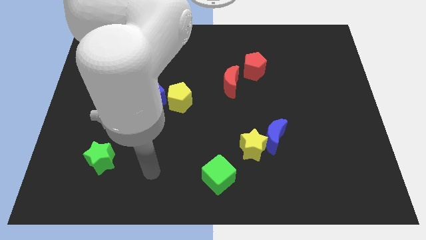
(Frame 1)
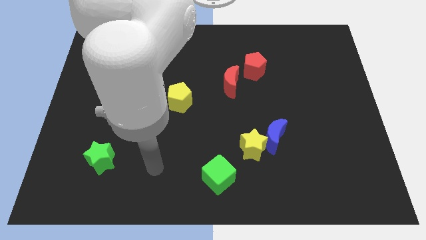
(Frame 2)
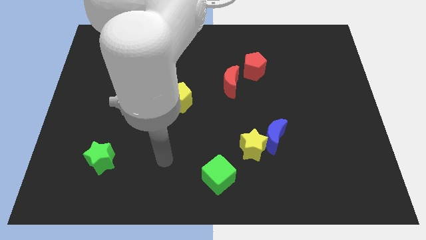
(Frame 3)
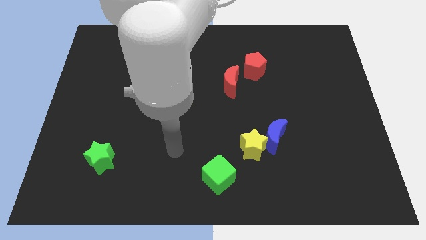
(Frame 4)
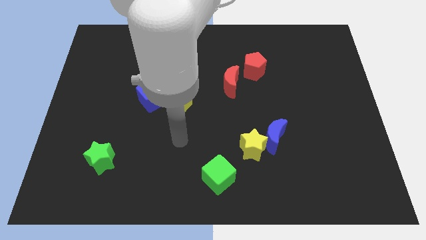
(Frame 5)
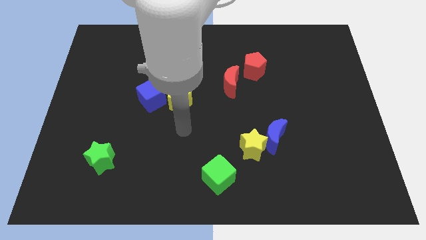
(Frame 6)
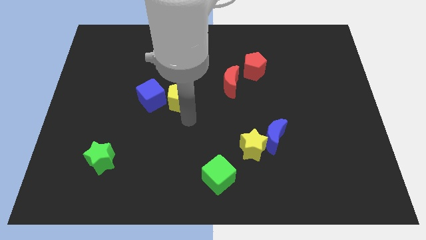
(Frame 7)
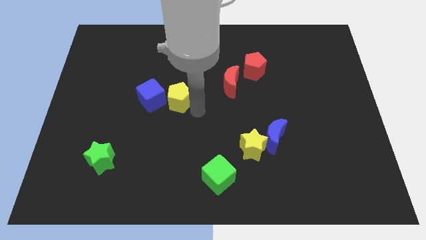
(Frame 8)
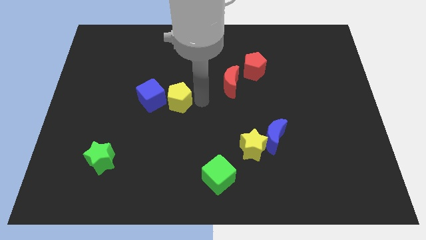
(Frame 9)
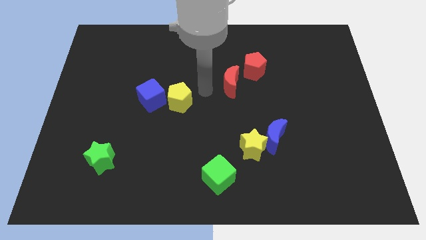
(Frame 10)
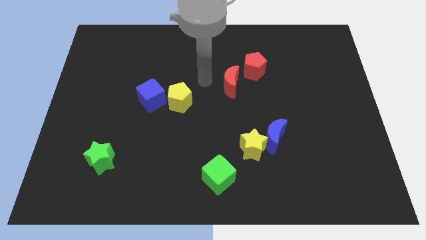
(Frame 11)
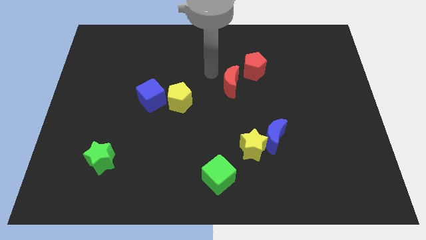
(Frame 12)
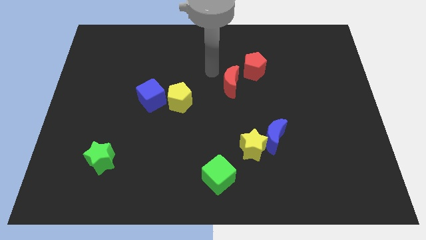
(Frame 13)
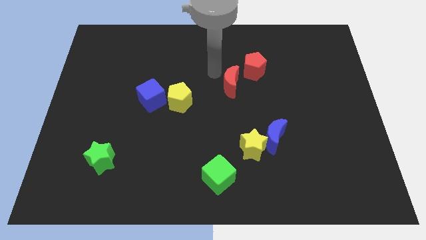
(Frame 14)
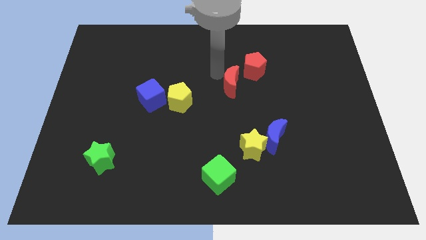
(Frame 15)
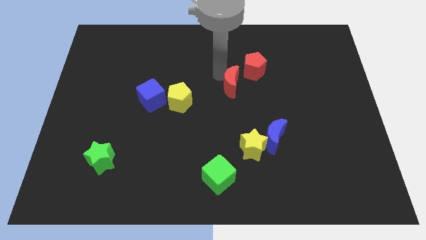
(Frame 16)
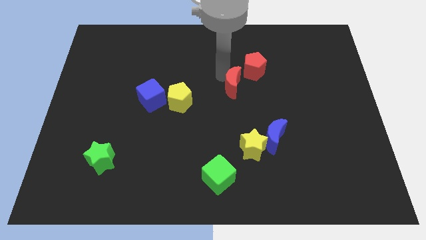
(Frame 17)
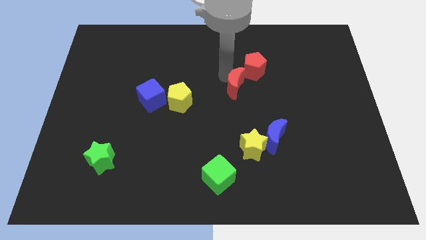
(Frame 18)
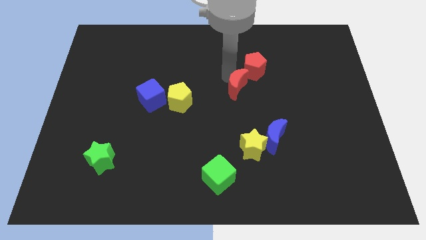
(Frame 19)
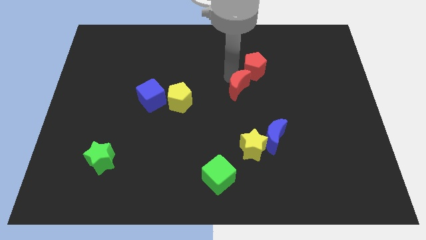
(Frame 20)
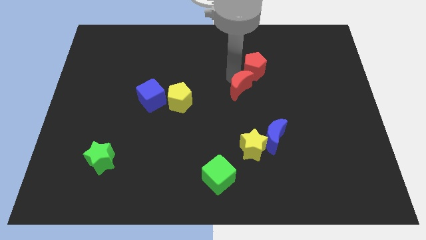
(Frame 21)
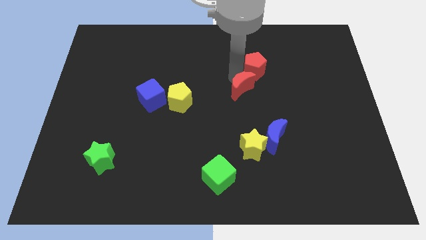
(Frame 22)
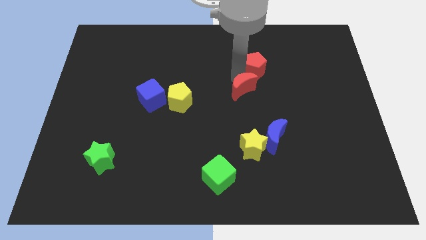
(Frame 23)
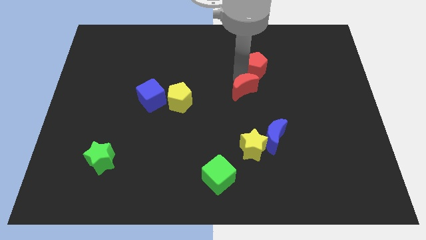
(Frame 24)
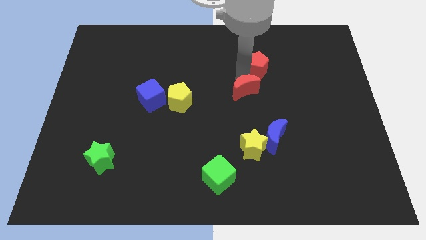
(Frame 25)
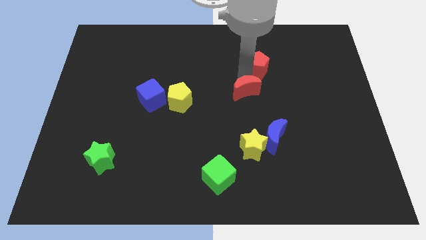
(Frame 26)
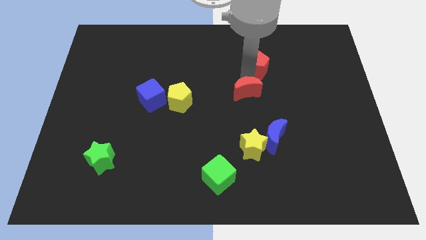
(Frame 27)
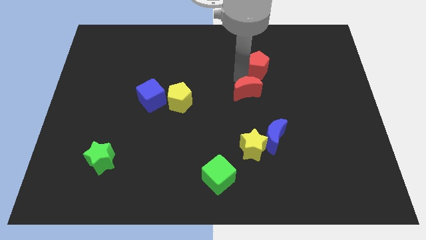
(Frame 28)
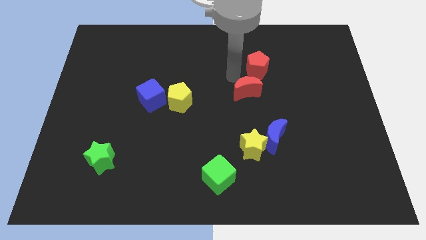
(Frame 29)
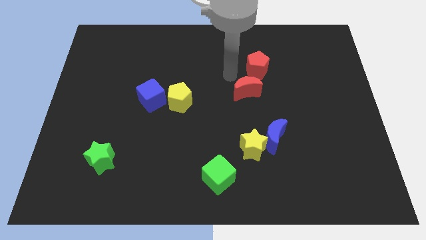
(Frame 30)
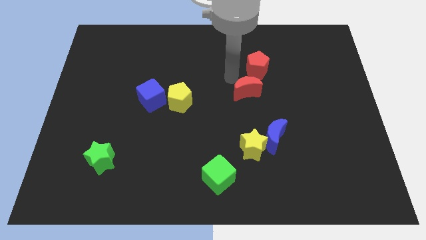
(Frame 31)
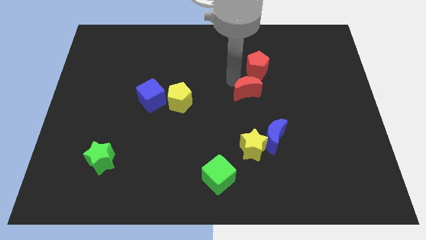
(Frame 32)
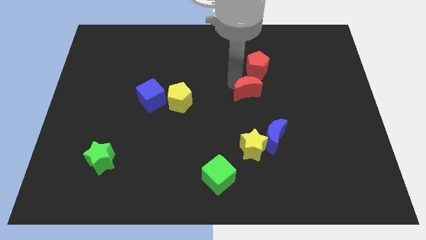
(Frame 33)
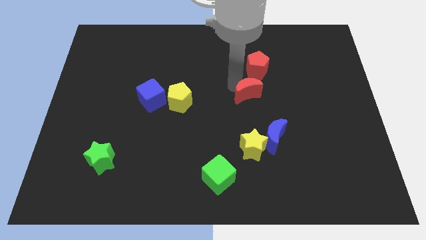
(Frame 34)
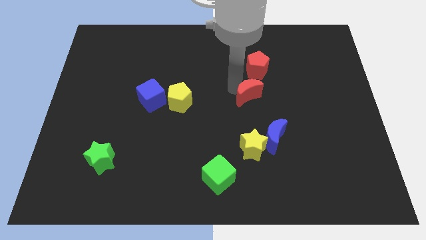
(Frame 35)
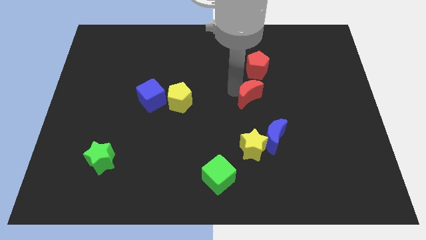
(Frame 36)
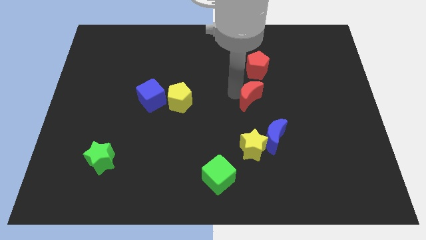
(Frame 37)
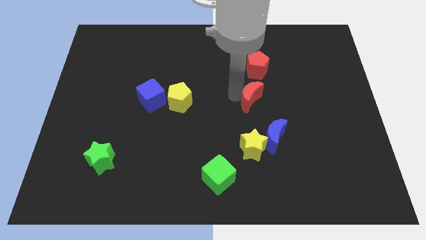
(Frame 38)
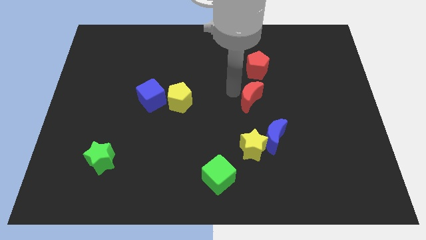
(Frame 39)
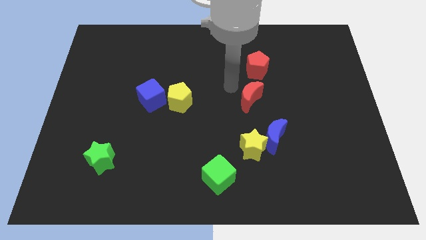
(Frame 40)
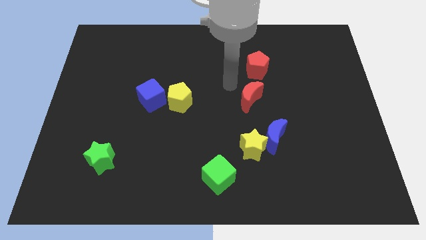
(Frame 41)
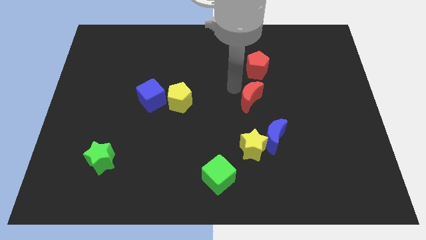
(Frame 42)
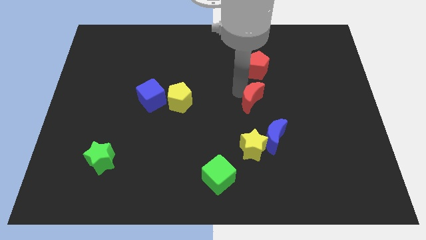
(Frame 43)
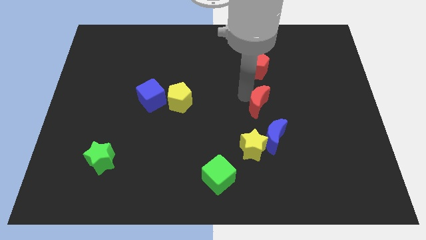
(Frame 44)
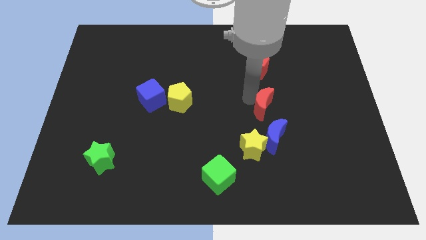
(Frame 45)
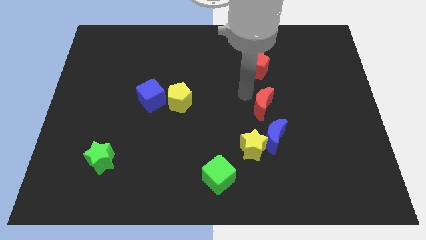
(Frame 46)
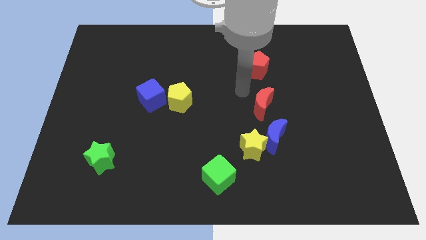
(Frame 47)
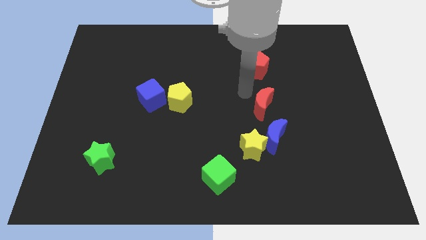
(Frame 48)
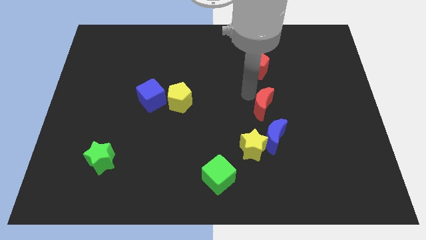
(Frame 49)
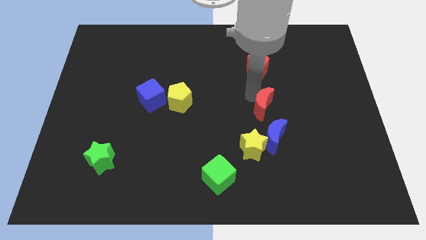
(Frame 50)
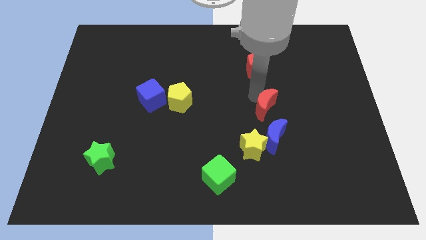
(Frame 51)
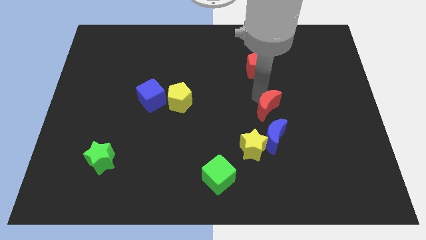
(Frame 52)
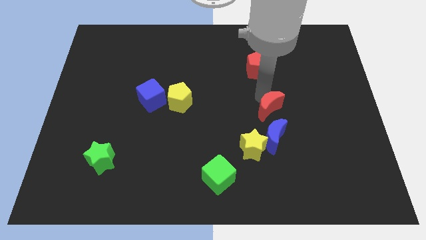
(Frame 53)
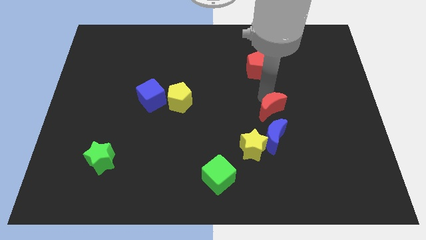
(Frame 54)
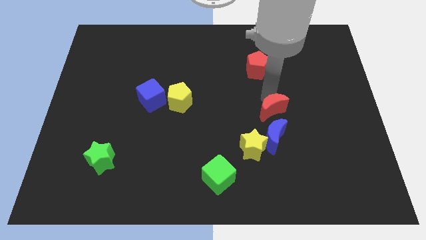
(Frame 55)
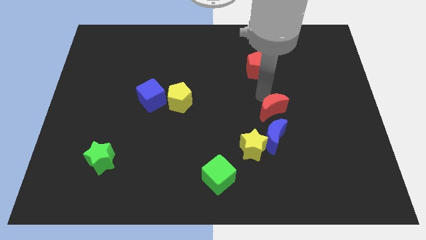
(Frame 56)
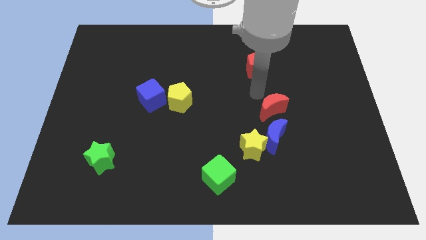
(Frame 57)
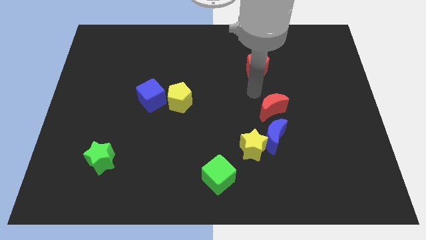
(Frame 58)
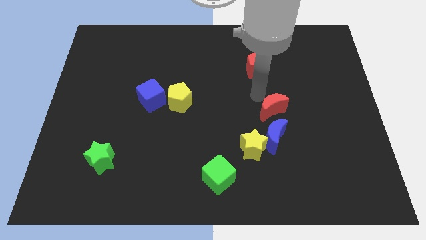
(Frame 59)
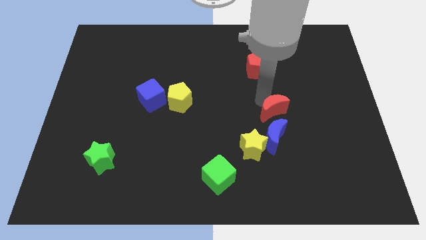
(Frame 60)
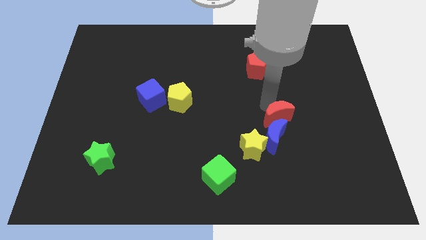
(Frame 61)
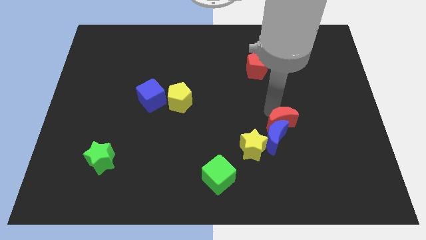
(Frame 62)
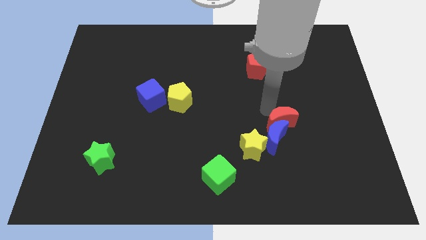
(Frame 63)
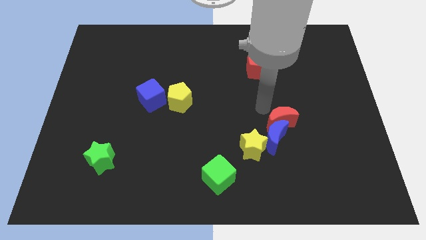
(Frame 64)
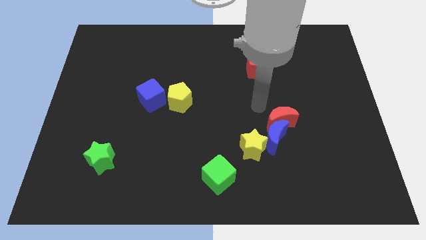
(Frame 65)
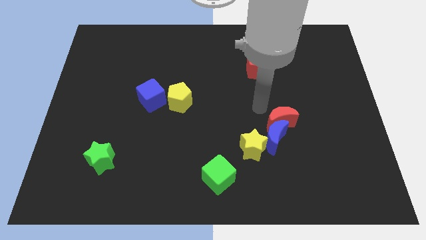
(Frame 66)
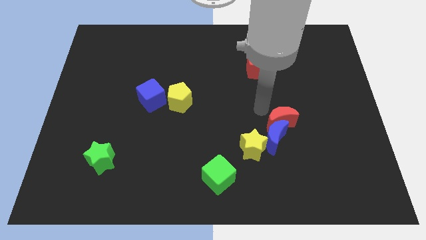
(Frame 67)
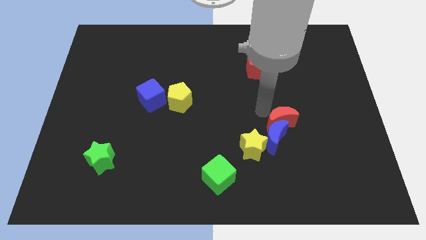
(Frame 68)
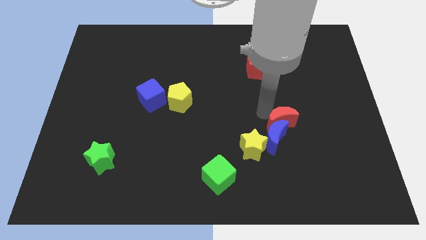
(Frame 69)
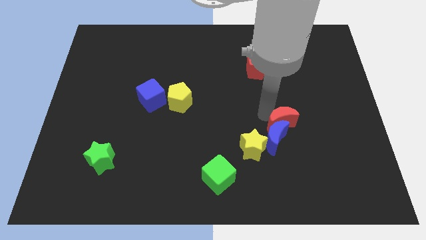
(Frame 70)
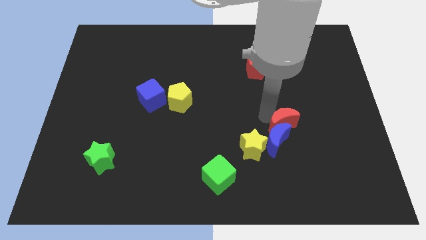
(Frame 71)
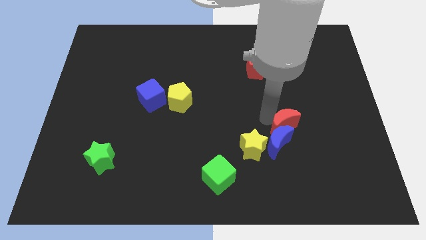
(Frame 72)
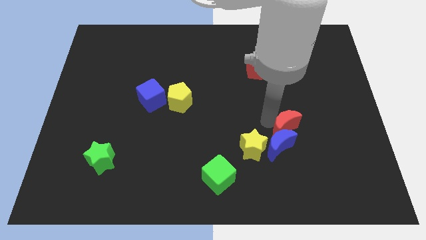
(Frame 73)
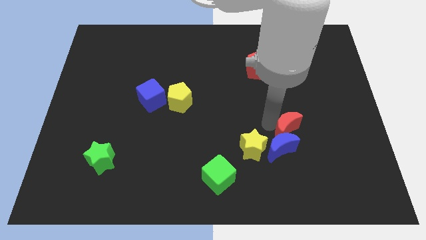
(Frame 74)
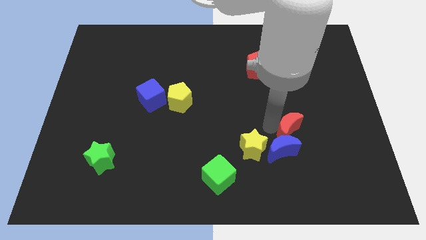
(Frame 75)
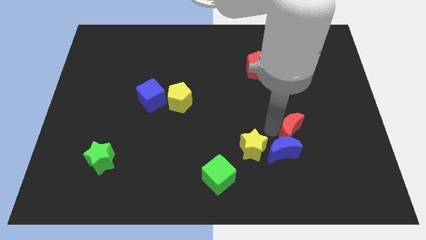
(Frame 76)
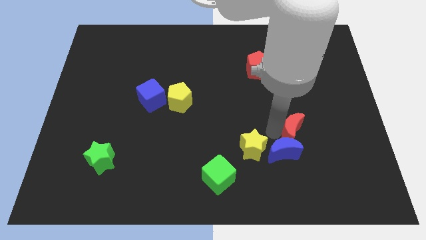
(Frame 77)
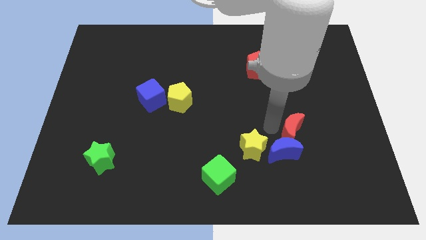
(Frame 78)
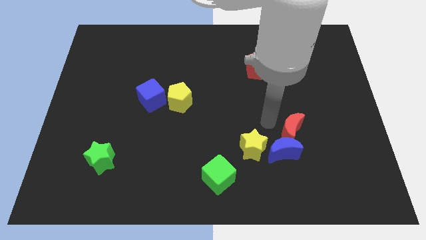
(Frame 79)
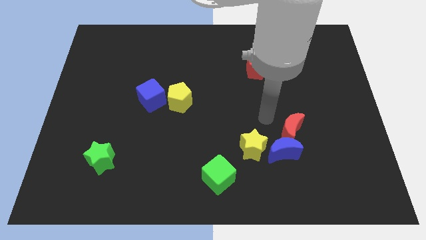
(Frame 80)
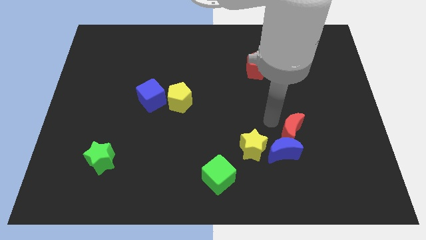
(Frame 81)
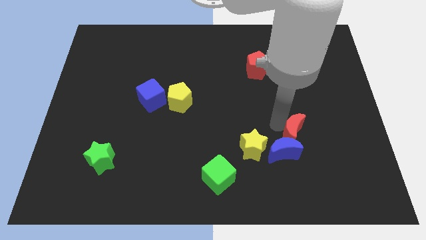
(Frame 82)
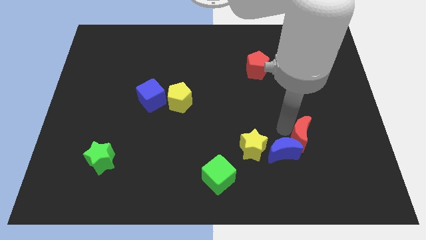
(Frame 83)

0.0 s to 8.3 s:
move the red moon down and right diagonally
